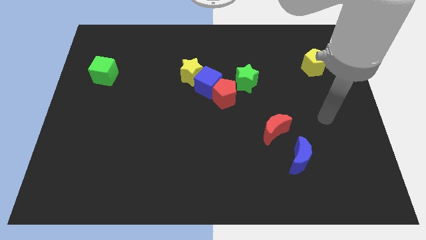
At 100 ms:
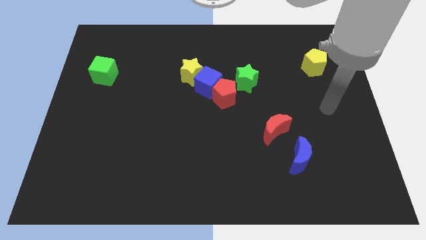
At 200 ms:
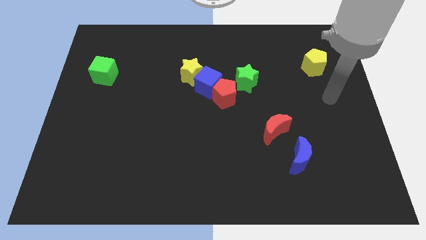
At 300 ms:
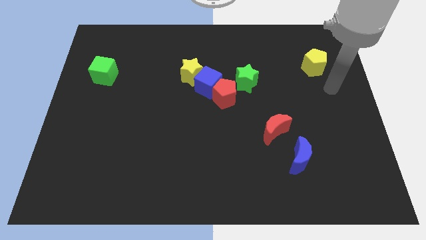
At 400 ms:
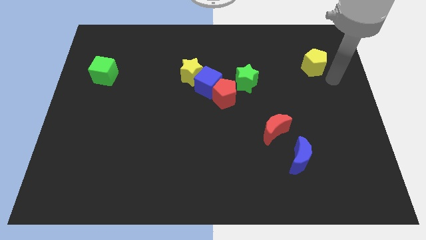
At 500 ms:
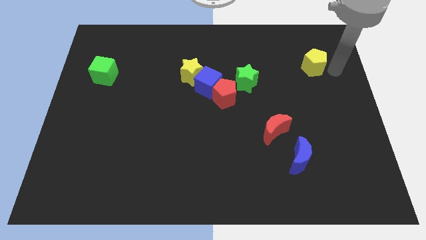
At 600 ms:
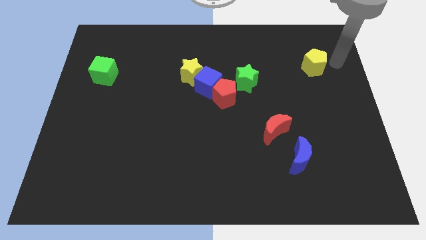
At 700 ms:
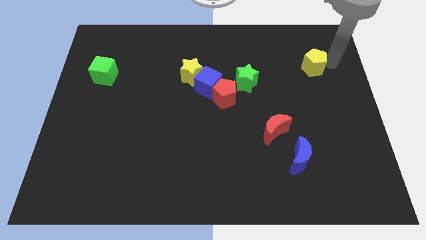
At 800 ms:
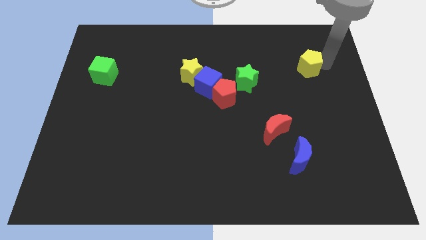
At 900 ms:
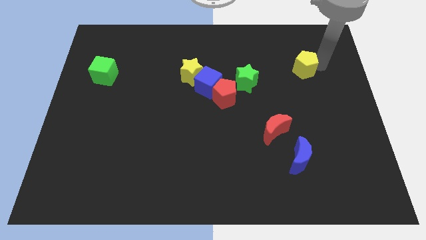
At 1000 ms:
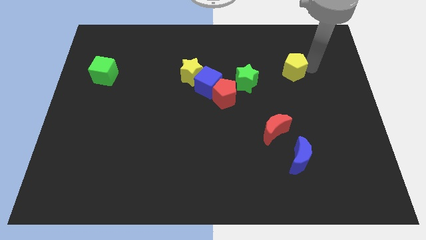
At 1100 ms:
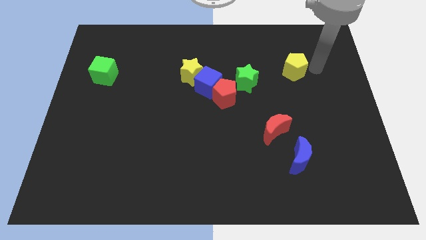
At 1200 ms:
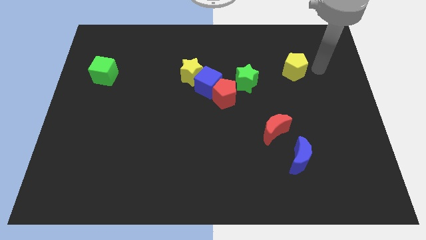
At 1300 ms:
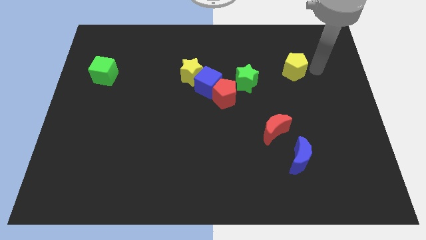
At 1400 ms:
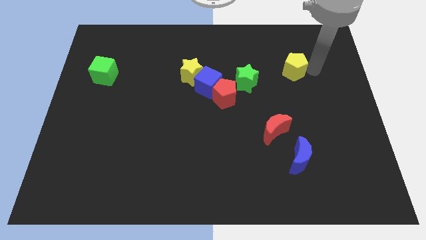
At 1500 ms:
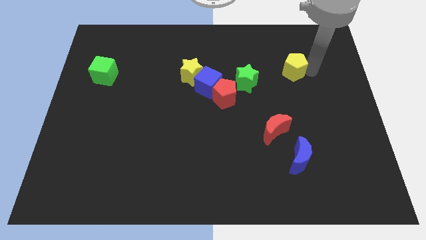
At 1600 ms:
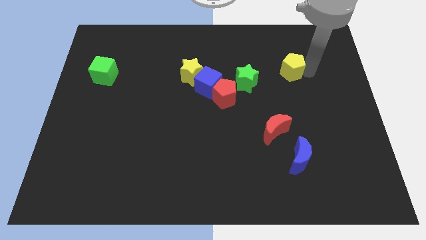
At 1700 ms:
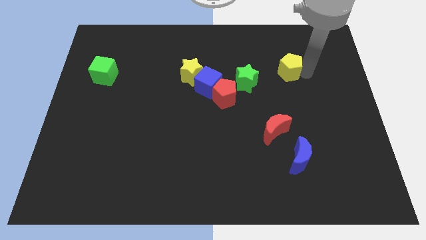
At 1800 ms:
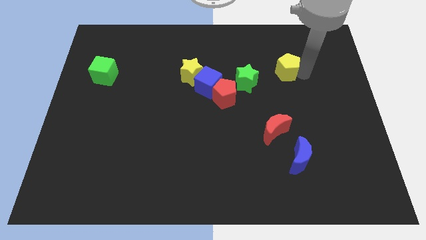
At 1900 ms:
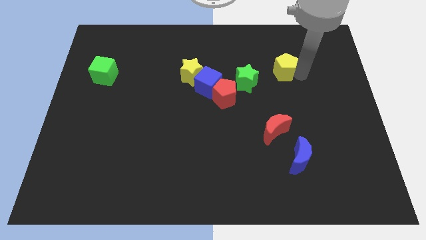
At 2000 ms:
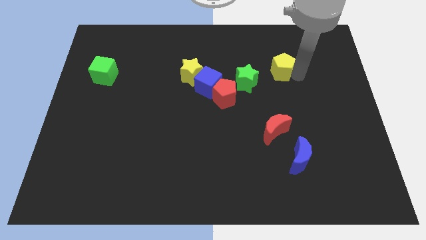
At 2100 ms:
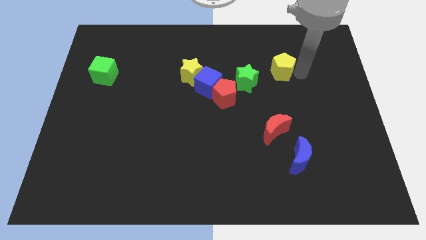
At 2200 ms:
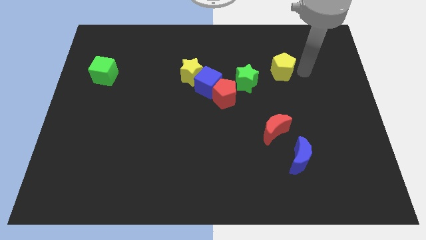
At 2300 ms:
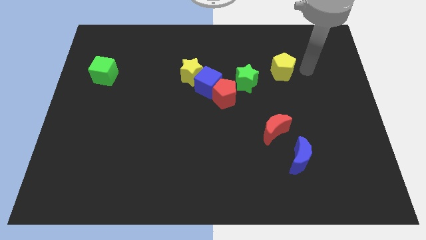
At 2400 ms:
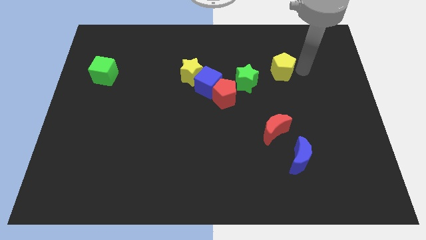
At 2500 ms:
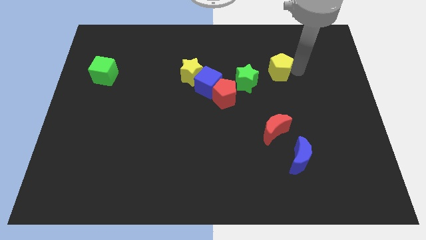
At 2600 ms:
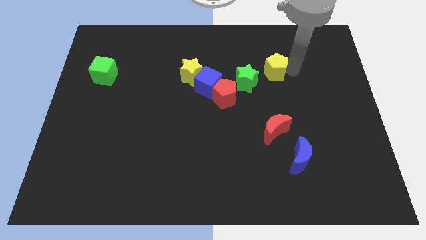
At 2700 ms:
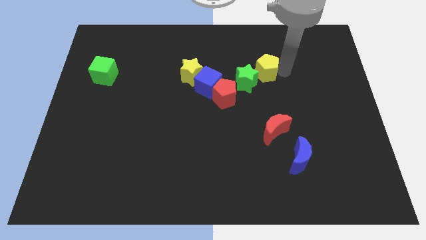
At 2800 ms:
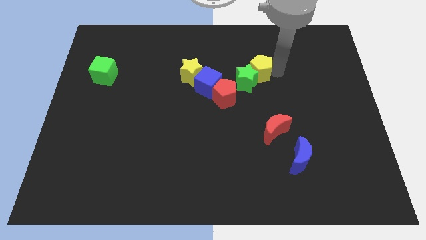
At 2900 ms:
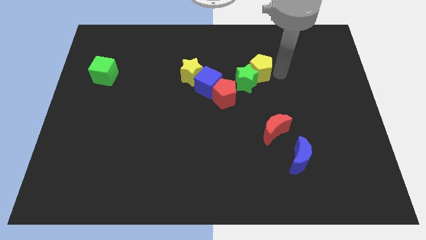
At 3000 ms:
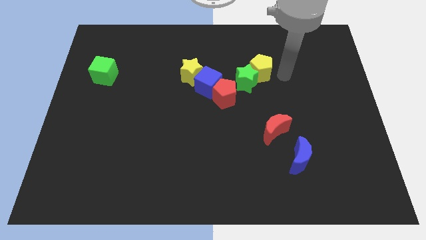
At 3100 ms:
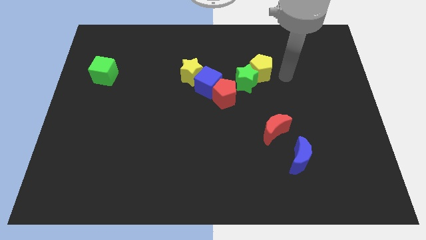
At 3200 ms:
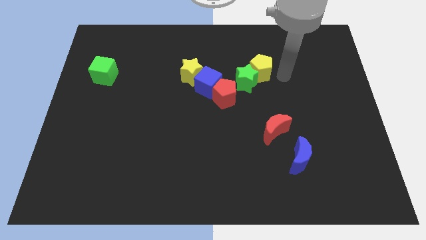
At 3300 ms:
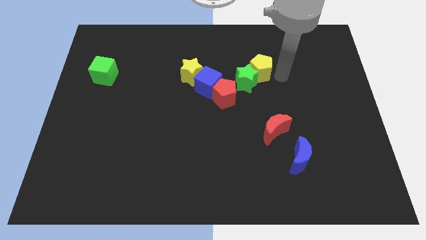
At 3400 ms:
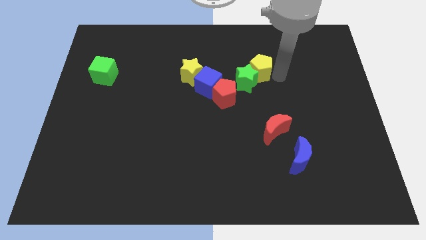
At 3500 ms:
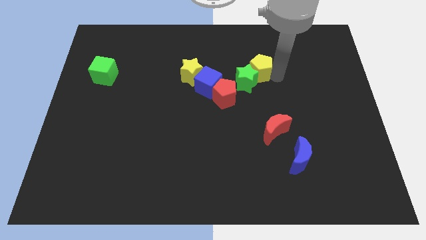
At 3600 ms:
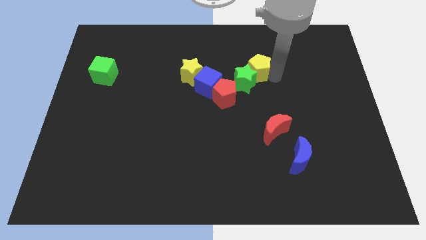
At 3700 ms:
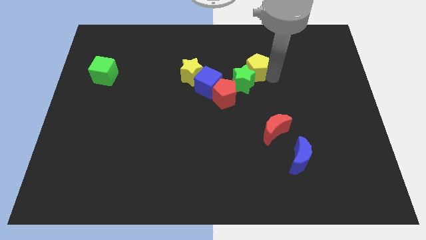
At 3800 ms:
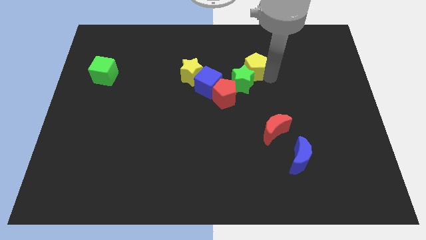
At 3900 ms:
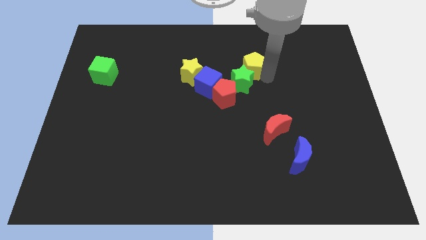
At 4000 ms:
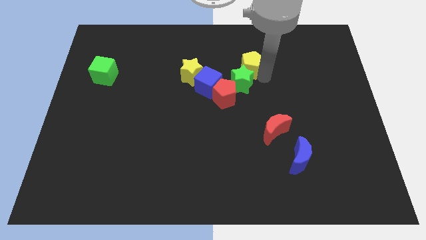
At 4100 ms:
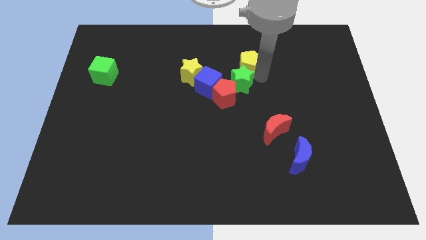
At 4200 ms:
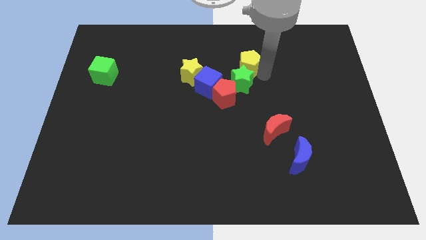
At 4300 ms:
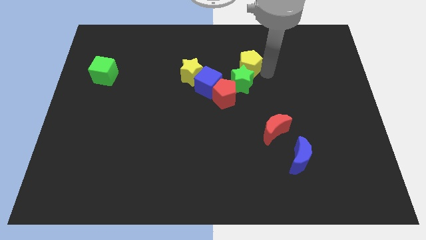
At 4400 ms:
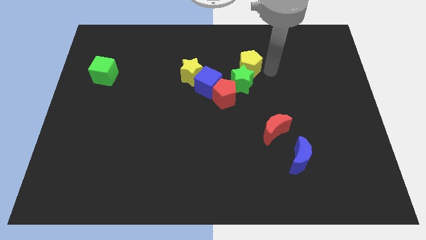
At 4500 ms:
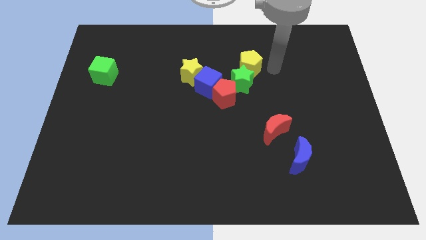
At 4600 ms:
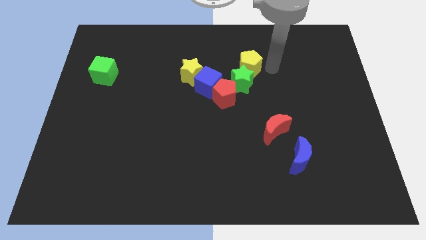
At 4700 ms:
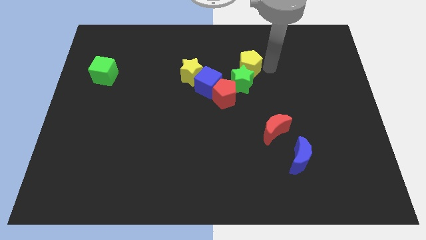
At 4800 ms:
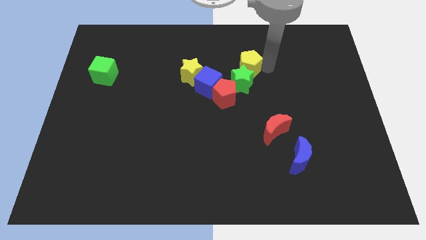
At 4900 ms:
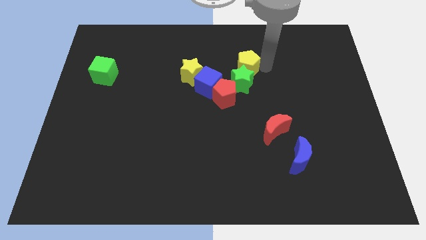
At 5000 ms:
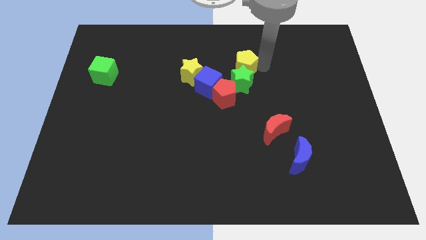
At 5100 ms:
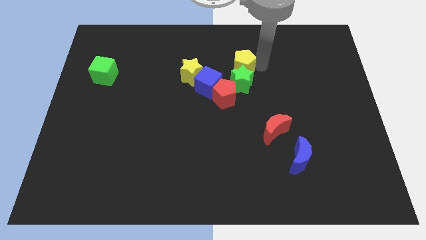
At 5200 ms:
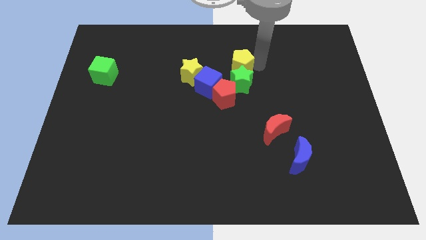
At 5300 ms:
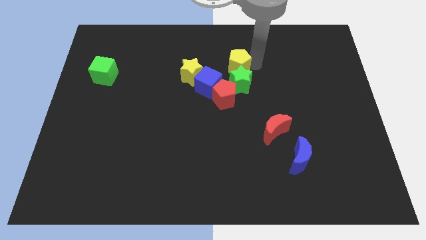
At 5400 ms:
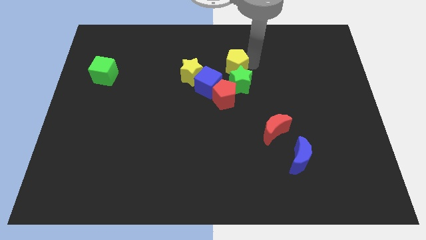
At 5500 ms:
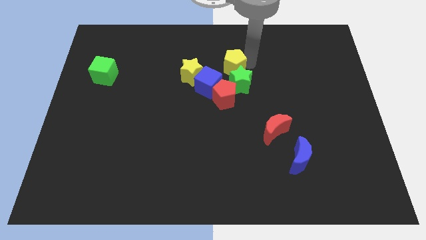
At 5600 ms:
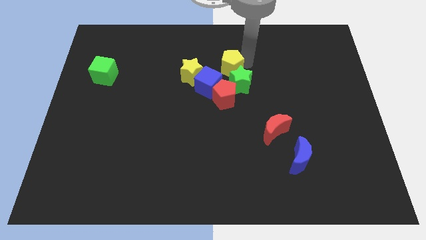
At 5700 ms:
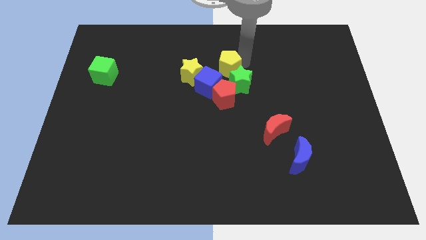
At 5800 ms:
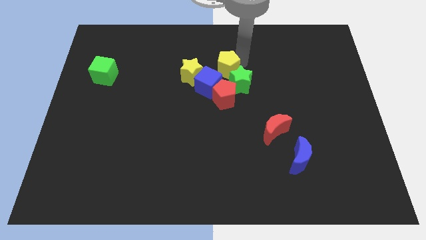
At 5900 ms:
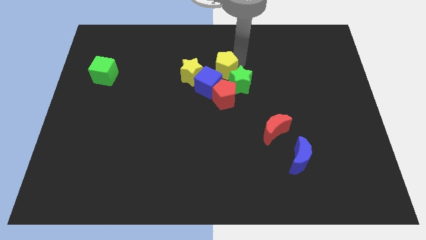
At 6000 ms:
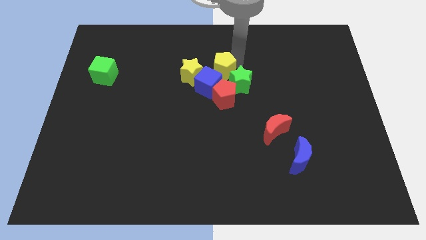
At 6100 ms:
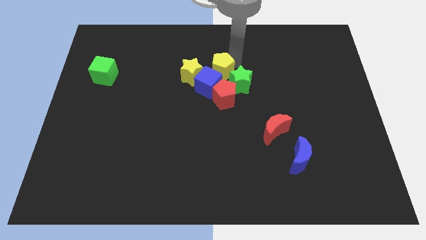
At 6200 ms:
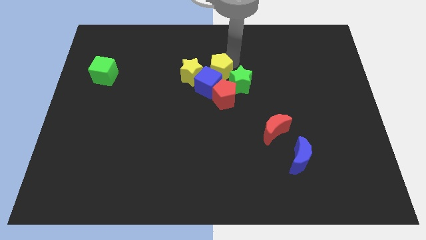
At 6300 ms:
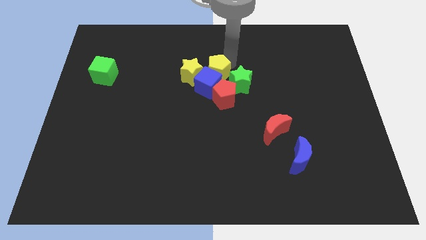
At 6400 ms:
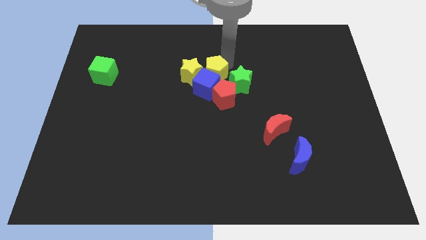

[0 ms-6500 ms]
slide the yellow pentagon next to the yellow star

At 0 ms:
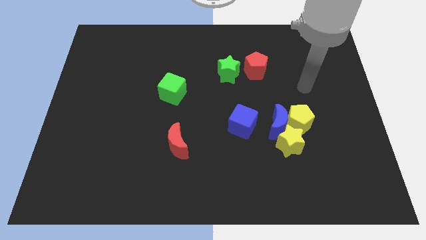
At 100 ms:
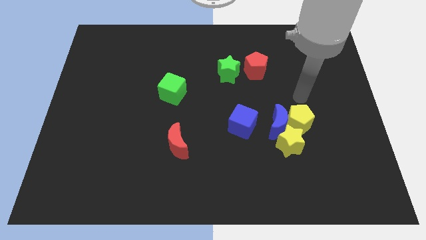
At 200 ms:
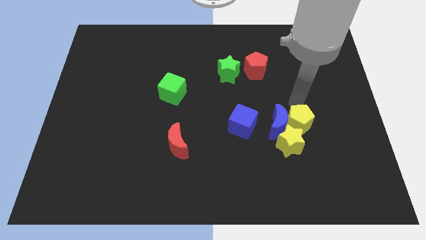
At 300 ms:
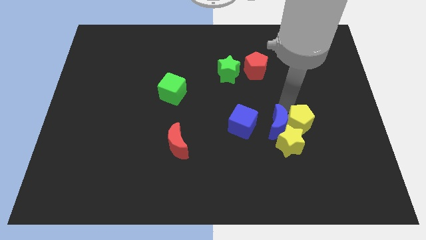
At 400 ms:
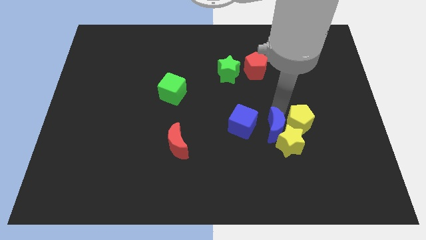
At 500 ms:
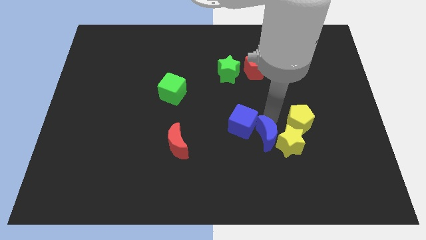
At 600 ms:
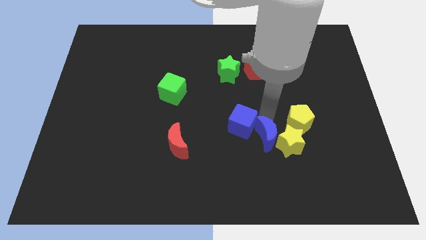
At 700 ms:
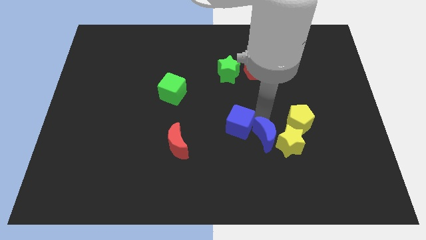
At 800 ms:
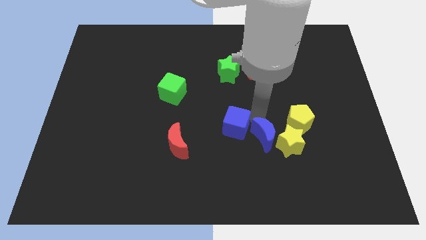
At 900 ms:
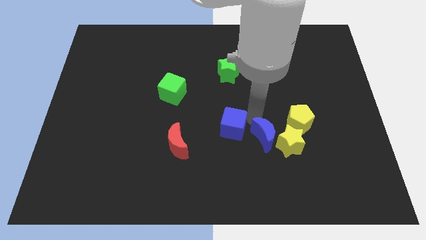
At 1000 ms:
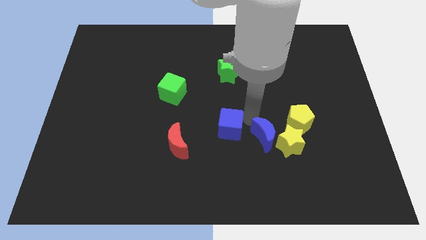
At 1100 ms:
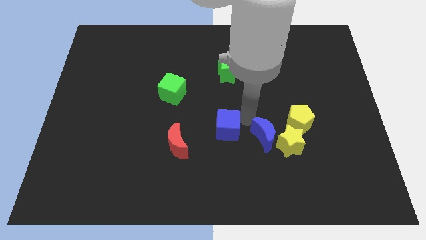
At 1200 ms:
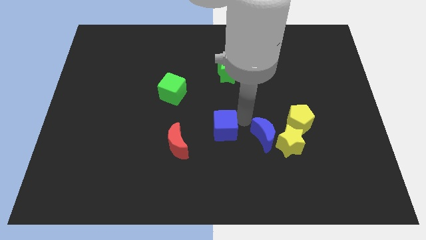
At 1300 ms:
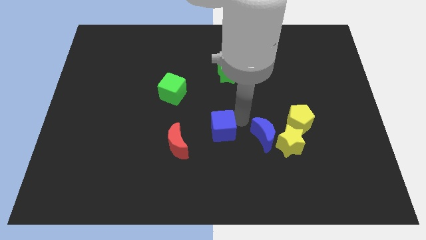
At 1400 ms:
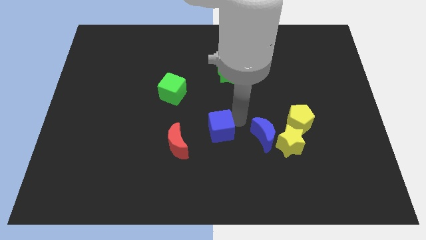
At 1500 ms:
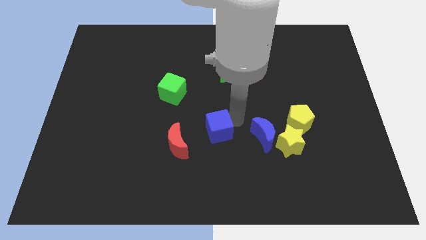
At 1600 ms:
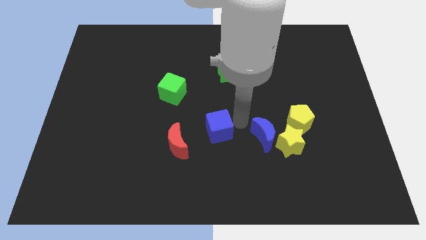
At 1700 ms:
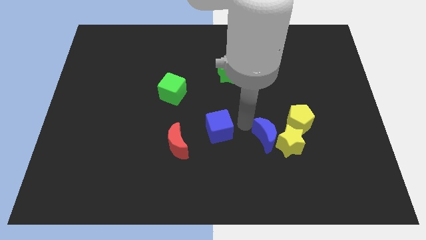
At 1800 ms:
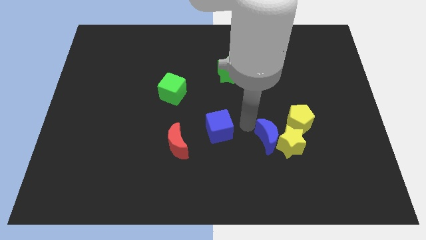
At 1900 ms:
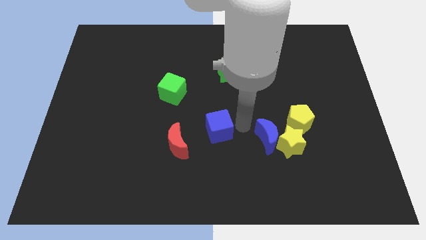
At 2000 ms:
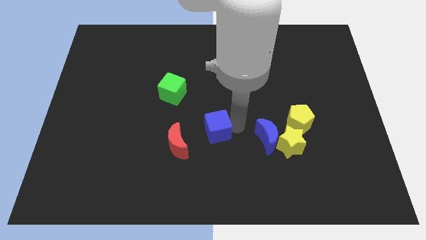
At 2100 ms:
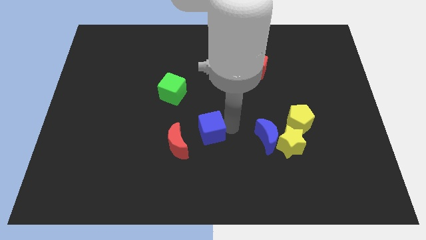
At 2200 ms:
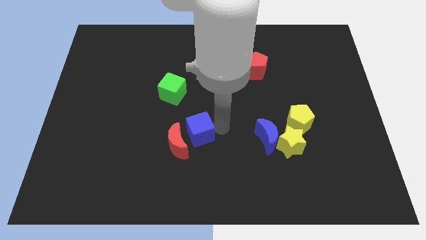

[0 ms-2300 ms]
push the blue cube to the red moon
